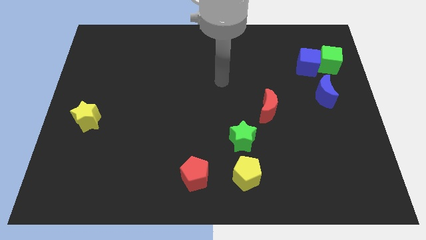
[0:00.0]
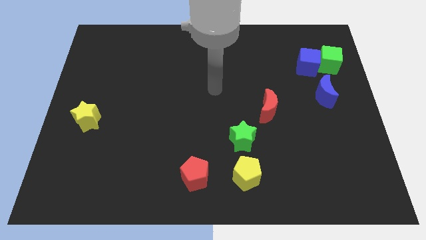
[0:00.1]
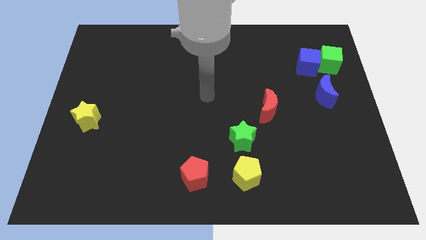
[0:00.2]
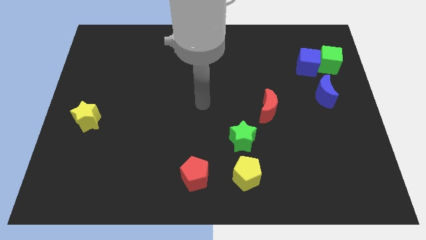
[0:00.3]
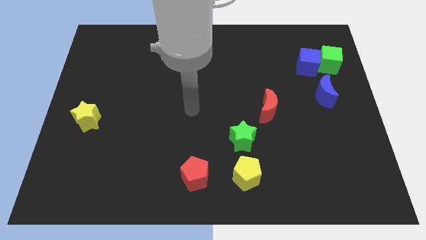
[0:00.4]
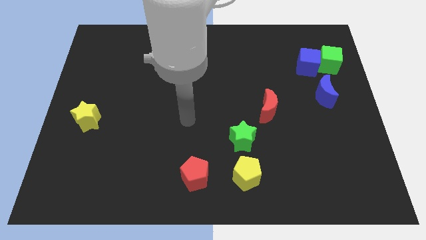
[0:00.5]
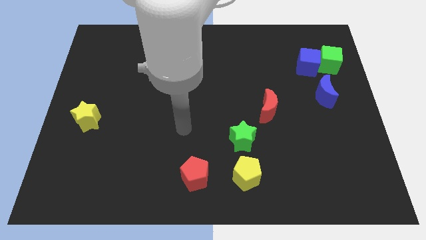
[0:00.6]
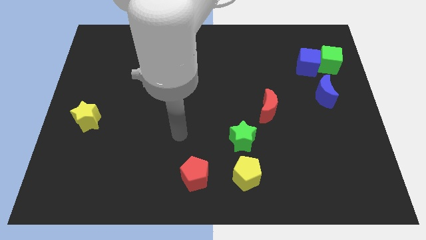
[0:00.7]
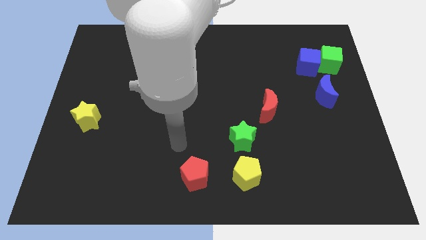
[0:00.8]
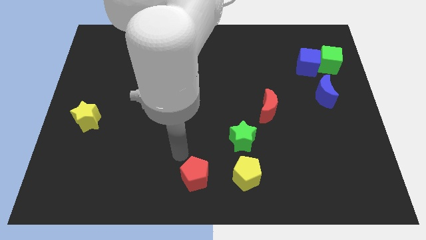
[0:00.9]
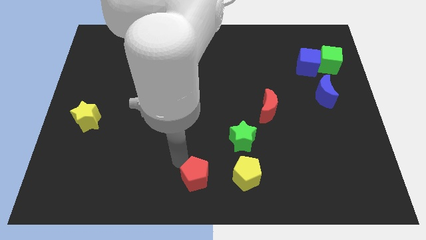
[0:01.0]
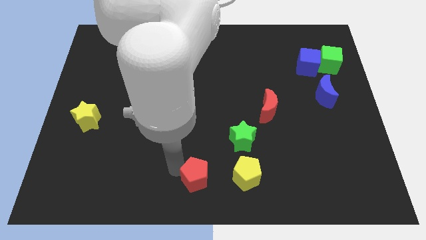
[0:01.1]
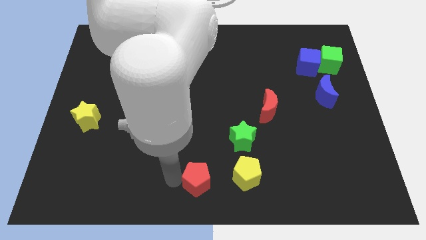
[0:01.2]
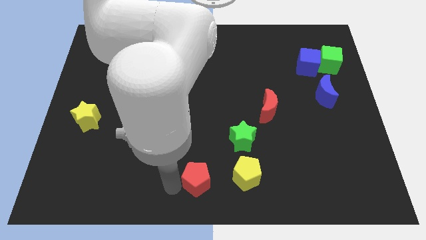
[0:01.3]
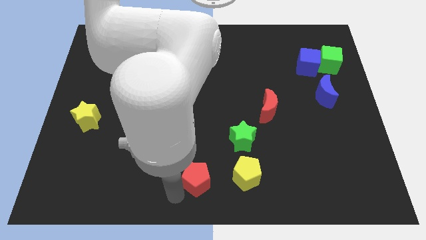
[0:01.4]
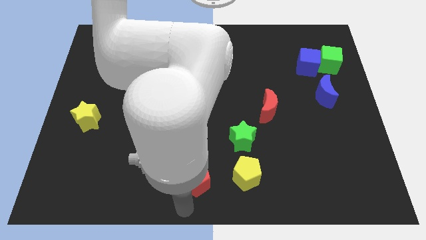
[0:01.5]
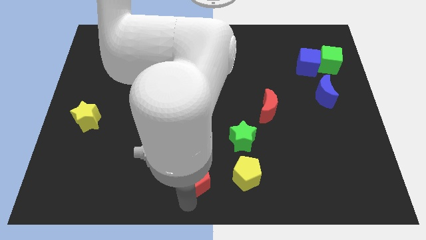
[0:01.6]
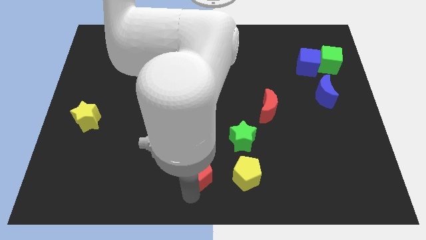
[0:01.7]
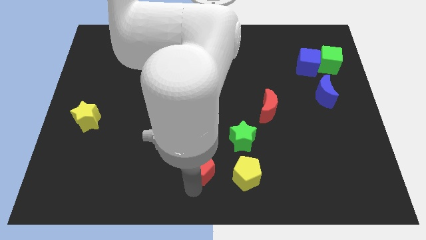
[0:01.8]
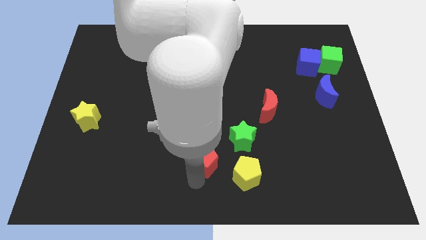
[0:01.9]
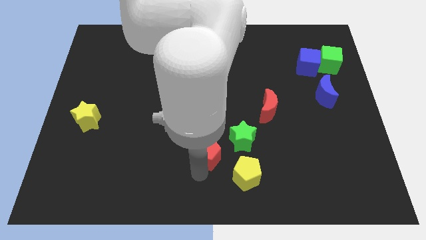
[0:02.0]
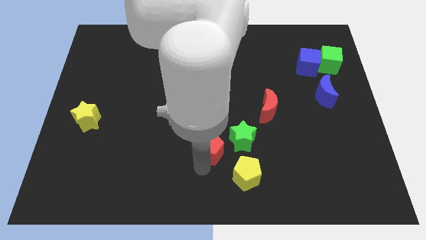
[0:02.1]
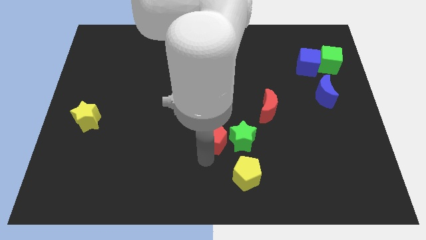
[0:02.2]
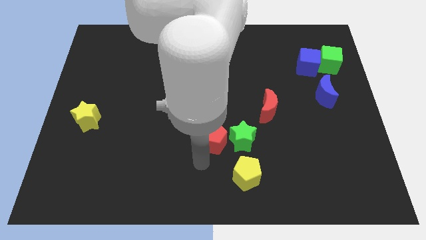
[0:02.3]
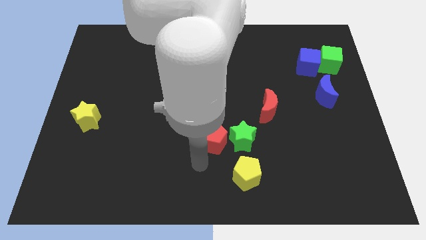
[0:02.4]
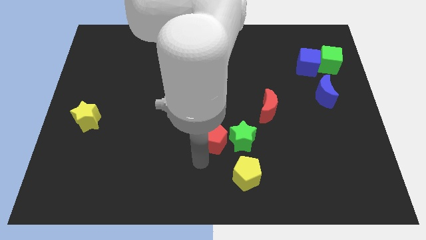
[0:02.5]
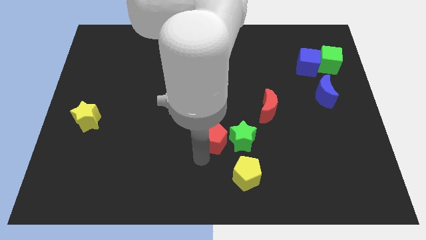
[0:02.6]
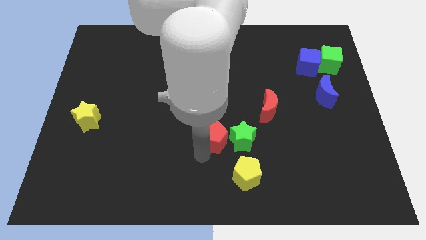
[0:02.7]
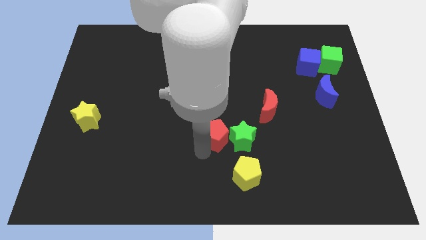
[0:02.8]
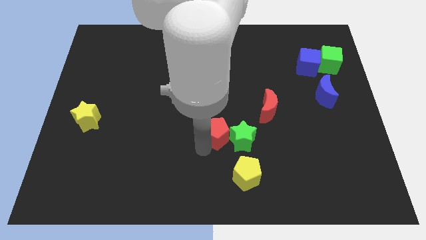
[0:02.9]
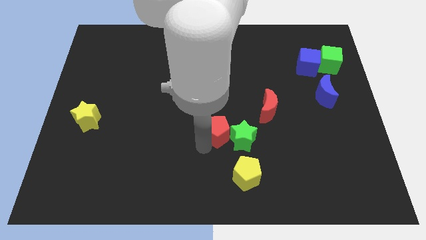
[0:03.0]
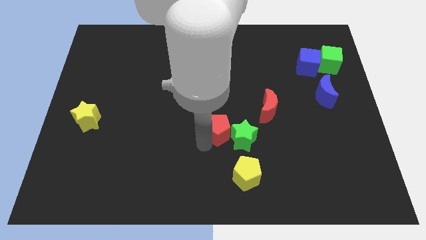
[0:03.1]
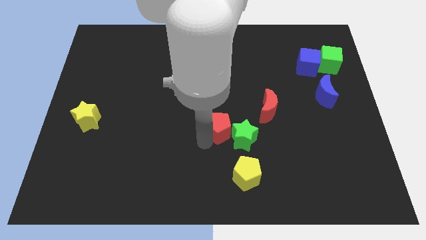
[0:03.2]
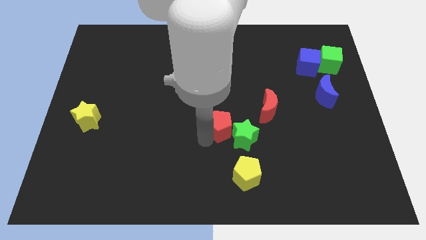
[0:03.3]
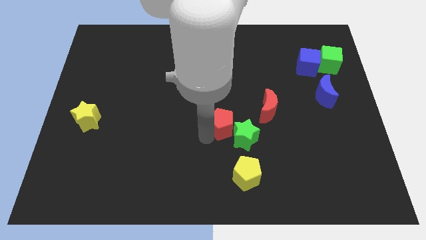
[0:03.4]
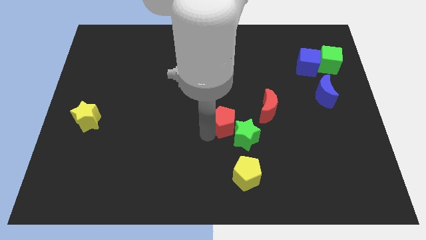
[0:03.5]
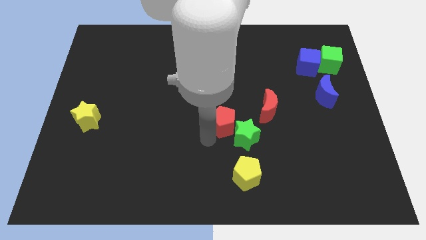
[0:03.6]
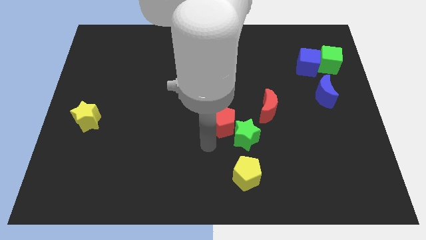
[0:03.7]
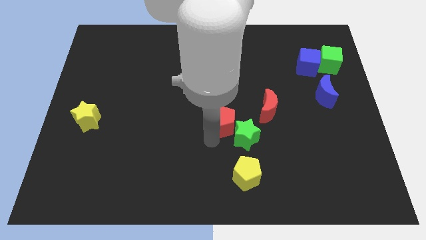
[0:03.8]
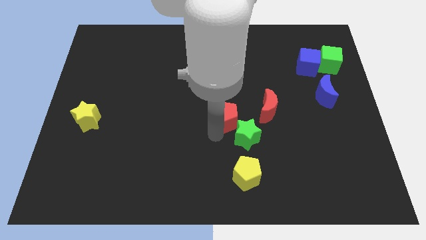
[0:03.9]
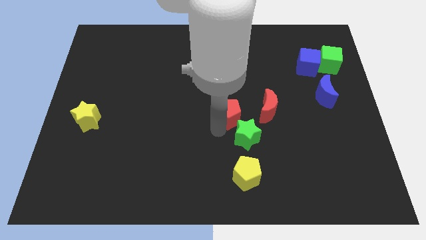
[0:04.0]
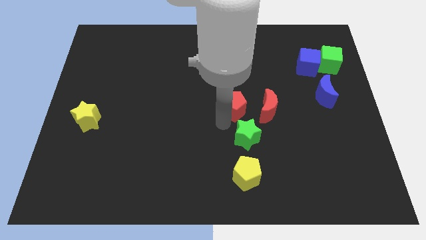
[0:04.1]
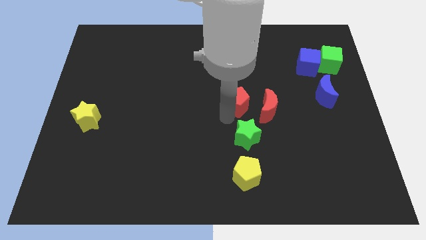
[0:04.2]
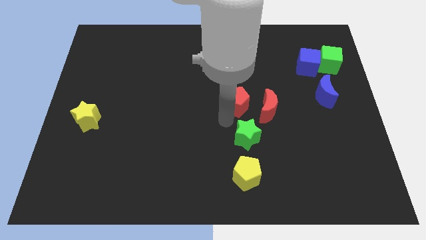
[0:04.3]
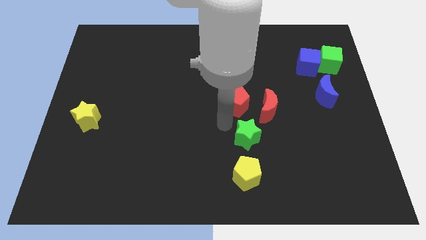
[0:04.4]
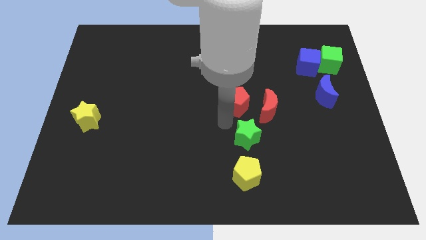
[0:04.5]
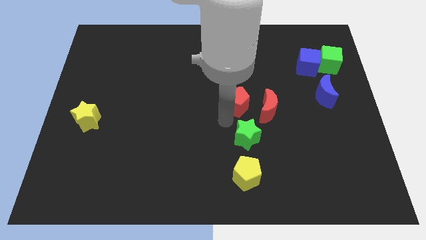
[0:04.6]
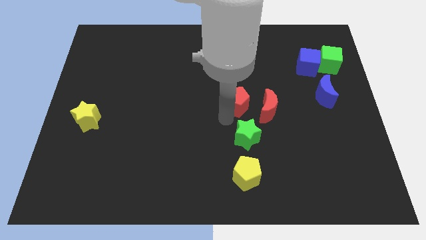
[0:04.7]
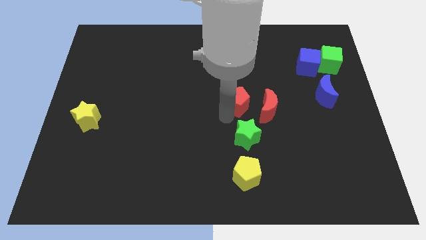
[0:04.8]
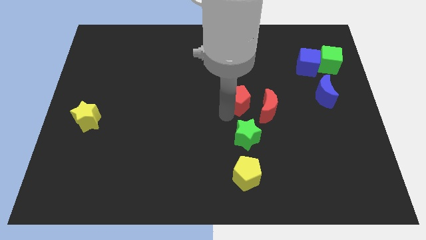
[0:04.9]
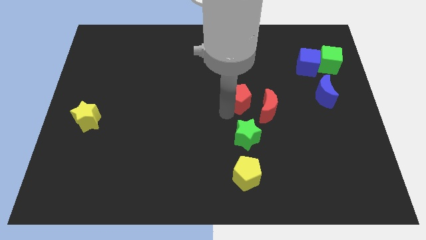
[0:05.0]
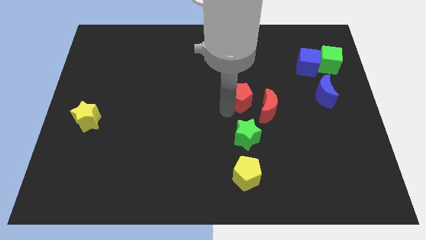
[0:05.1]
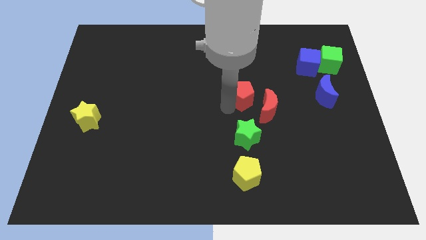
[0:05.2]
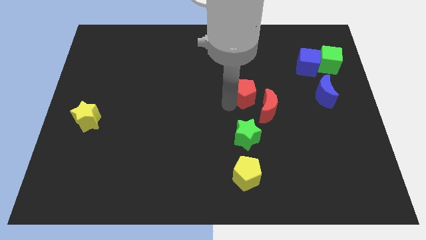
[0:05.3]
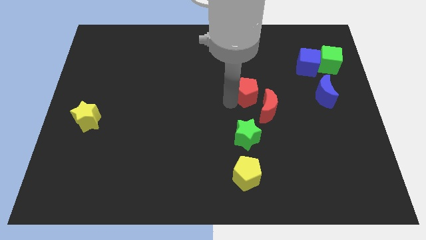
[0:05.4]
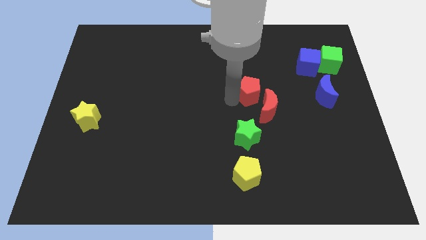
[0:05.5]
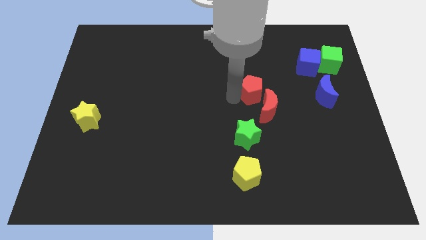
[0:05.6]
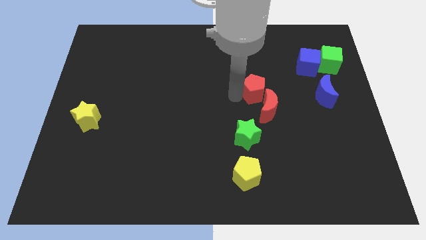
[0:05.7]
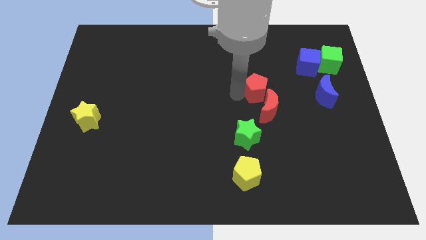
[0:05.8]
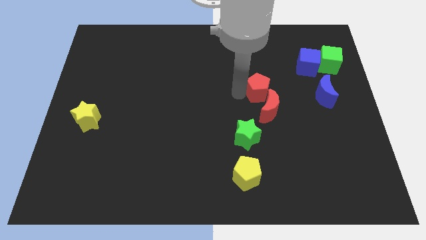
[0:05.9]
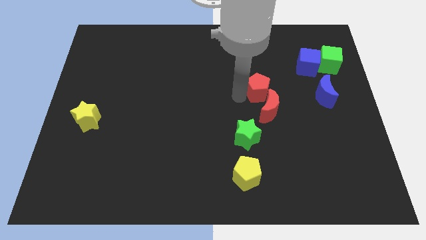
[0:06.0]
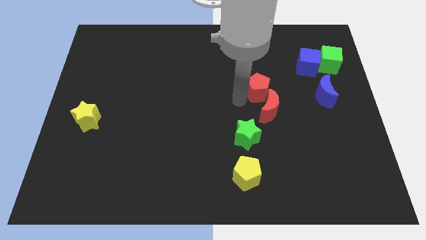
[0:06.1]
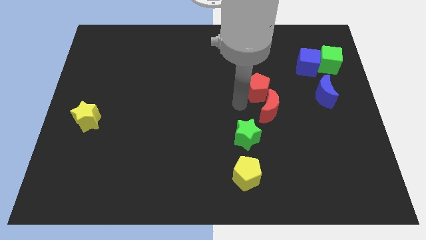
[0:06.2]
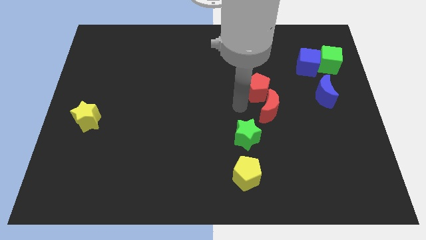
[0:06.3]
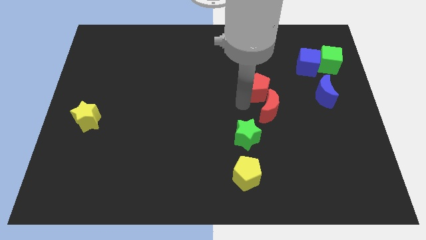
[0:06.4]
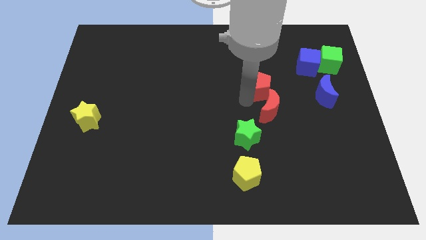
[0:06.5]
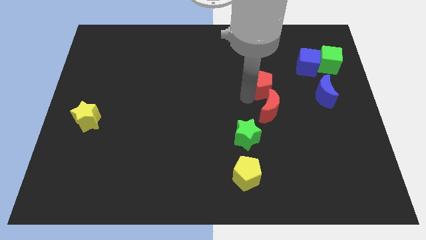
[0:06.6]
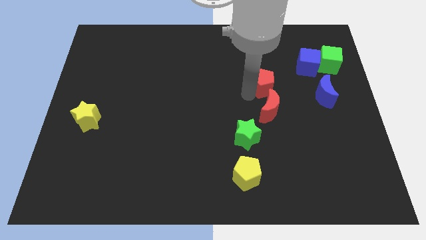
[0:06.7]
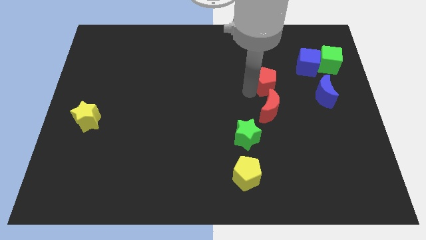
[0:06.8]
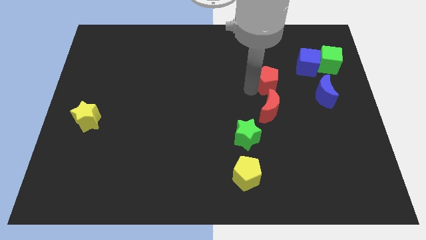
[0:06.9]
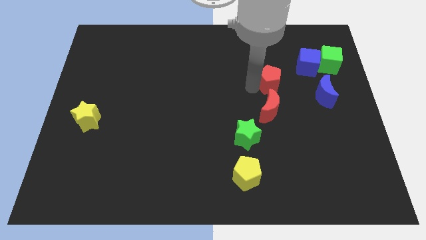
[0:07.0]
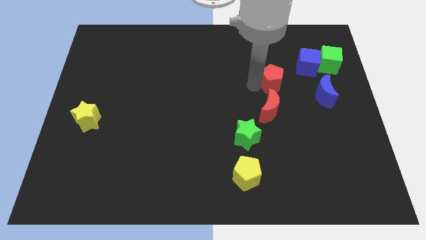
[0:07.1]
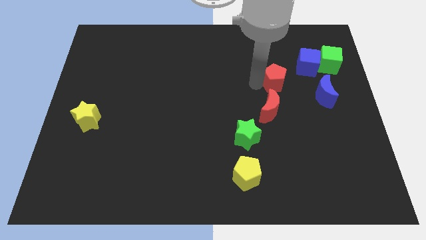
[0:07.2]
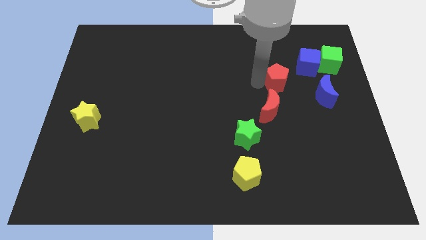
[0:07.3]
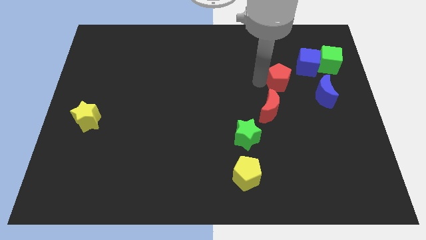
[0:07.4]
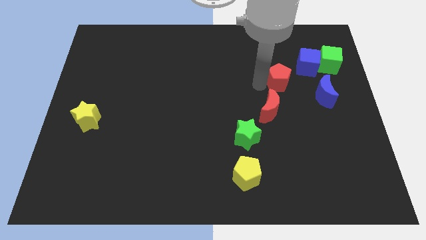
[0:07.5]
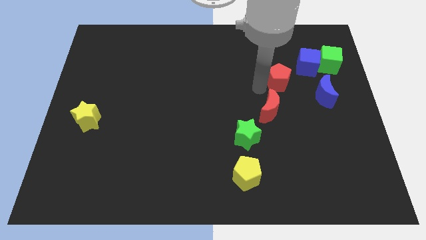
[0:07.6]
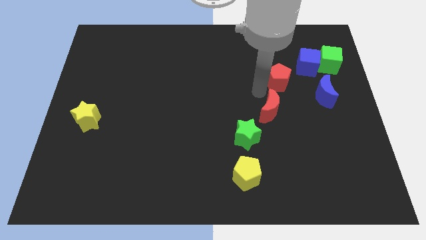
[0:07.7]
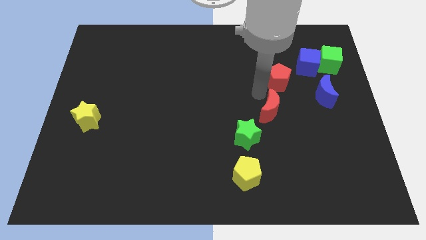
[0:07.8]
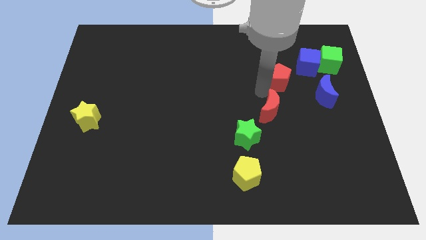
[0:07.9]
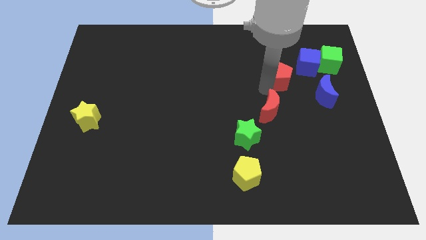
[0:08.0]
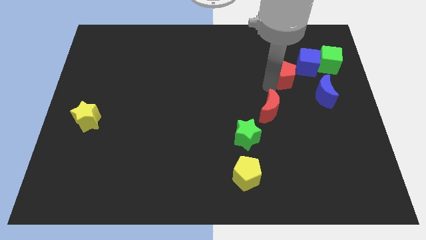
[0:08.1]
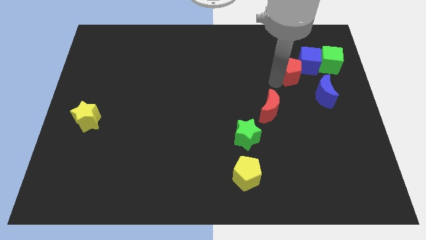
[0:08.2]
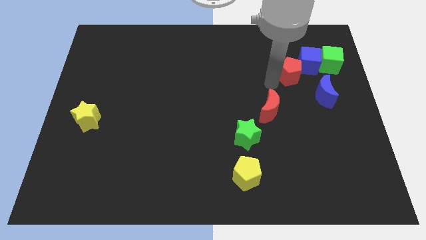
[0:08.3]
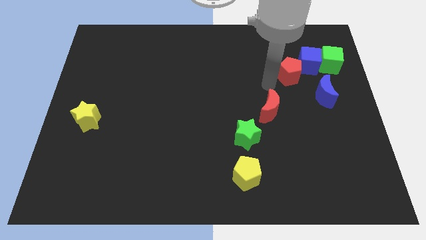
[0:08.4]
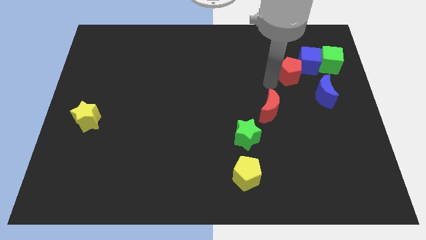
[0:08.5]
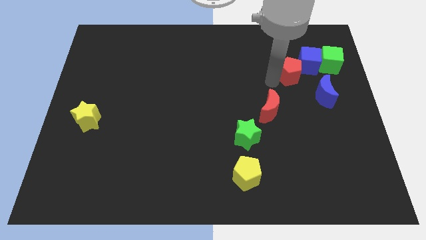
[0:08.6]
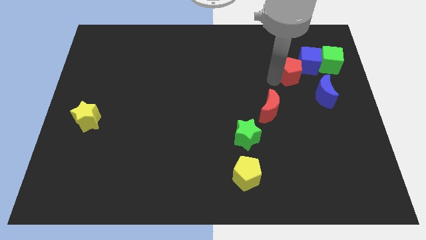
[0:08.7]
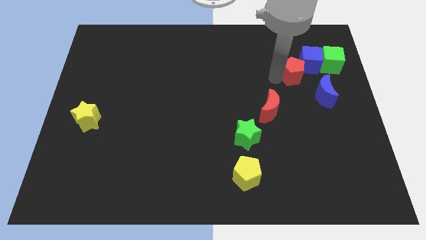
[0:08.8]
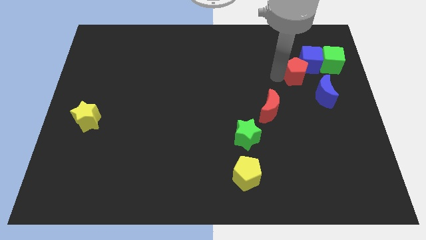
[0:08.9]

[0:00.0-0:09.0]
slide the red pentagon towards the blue cube
